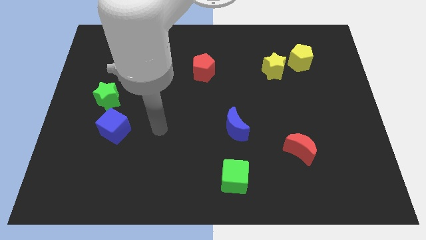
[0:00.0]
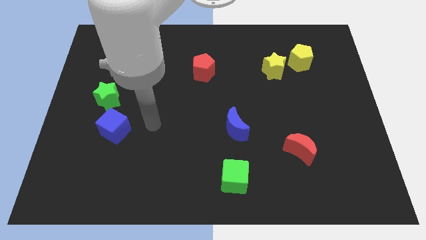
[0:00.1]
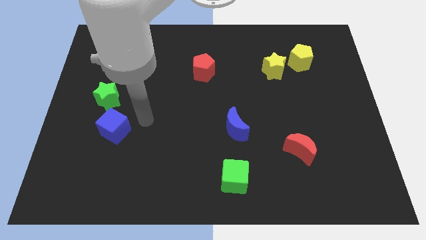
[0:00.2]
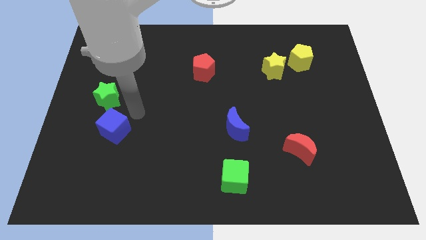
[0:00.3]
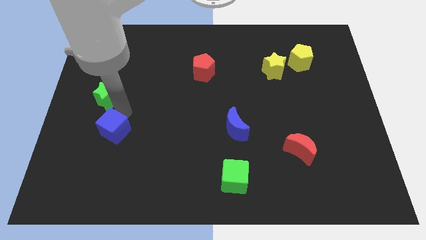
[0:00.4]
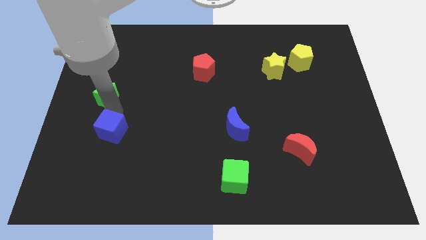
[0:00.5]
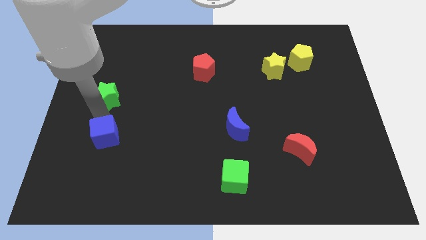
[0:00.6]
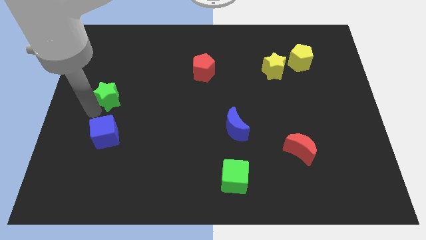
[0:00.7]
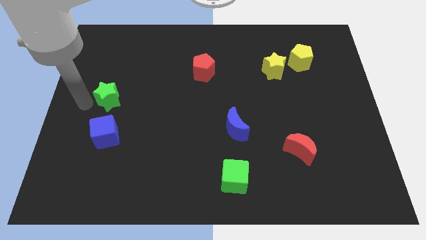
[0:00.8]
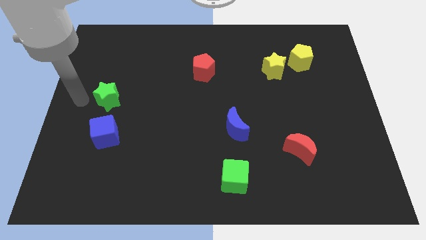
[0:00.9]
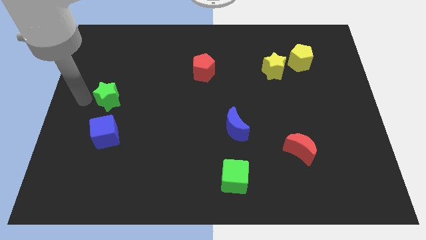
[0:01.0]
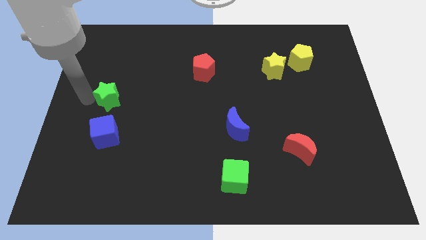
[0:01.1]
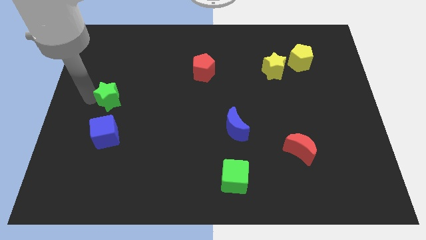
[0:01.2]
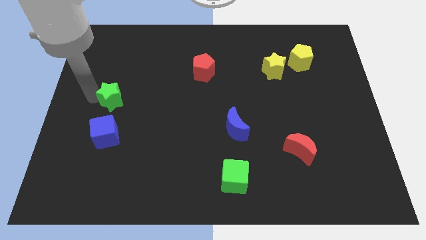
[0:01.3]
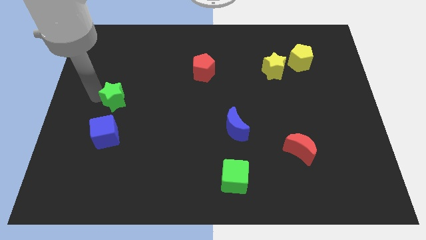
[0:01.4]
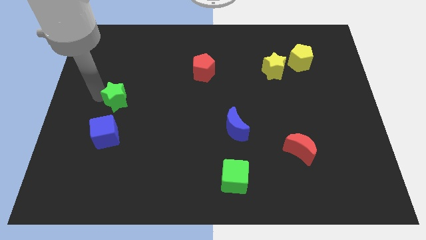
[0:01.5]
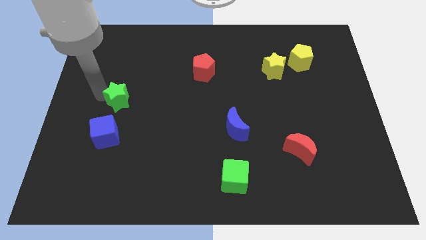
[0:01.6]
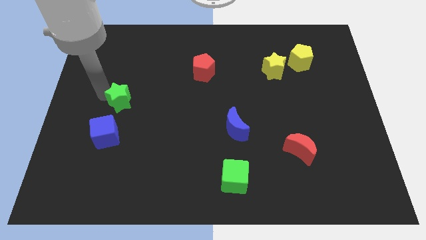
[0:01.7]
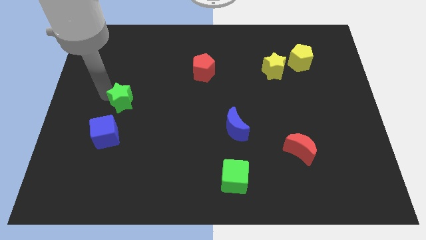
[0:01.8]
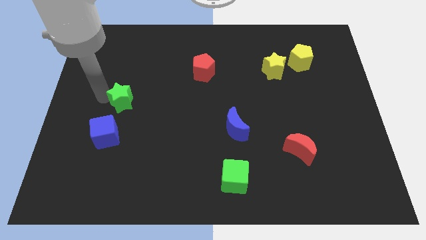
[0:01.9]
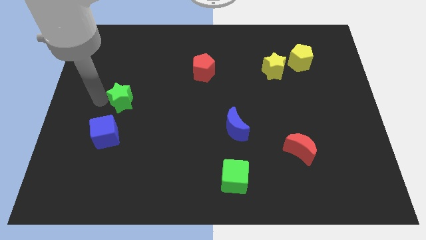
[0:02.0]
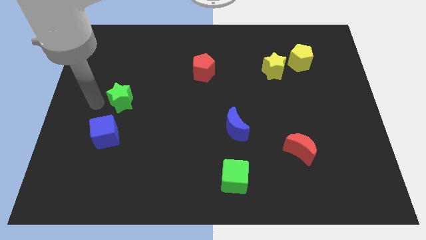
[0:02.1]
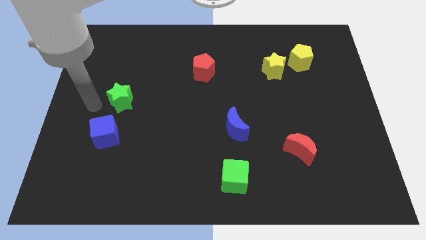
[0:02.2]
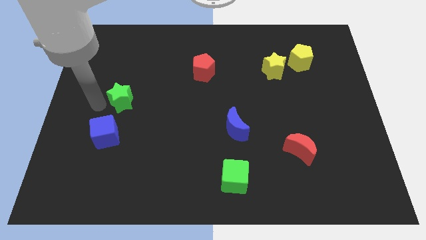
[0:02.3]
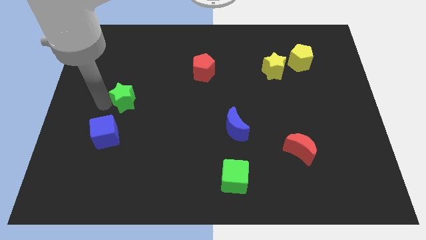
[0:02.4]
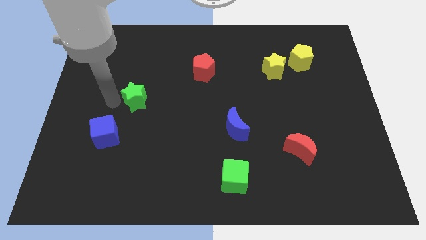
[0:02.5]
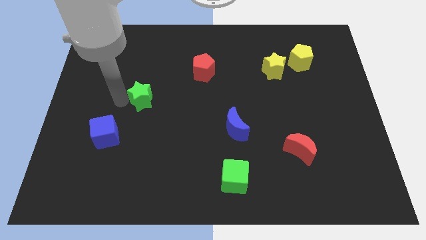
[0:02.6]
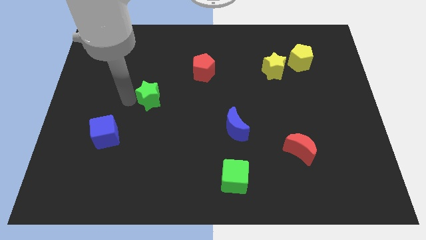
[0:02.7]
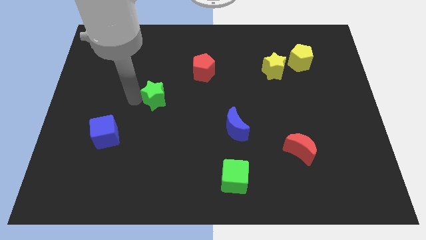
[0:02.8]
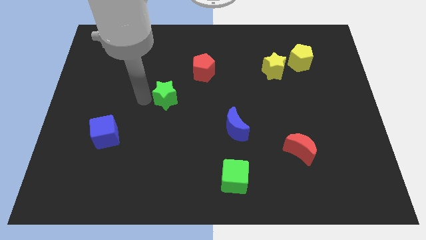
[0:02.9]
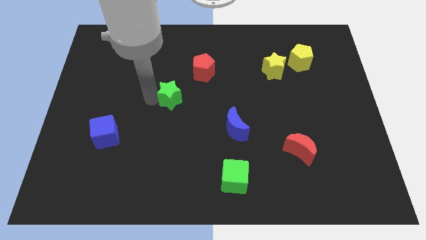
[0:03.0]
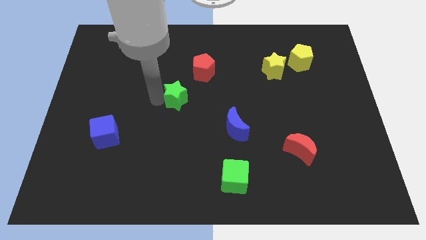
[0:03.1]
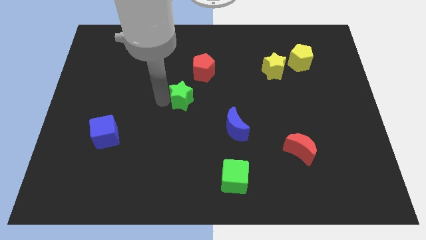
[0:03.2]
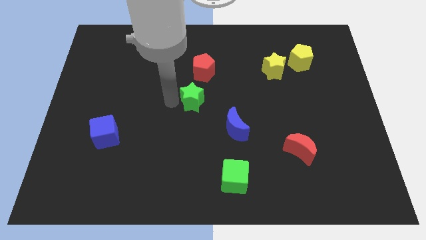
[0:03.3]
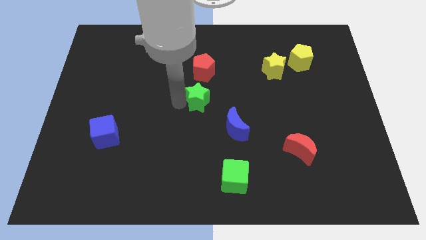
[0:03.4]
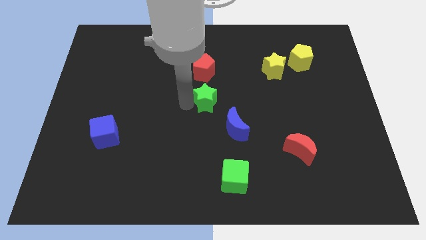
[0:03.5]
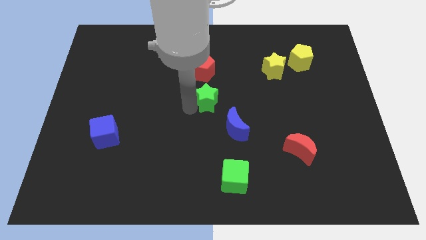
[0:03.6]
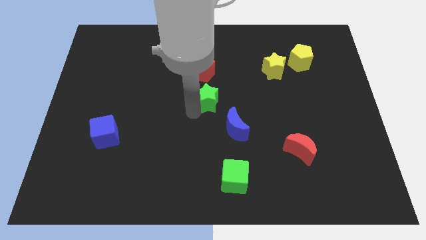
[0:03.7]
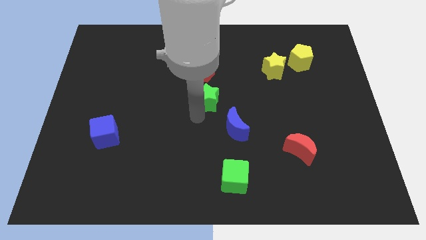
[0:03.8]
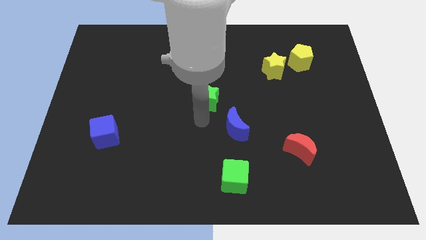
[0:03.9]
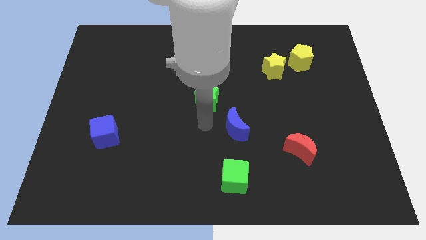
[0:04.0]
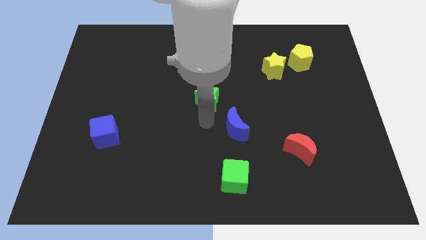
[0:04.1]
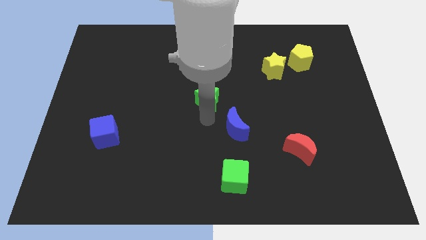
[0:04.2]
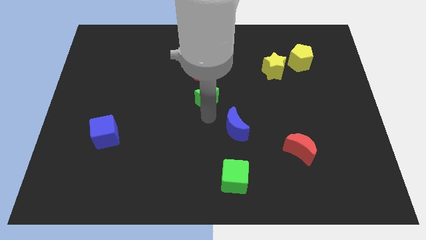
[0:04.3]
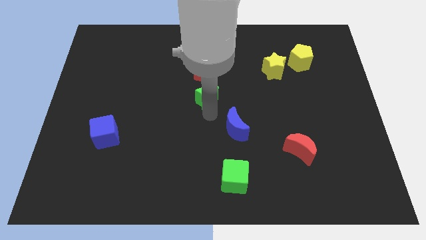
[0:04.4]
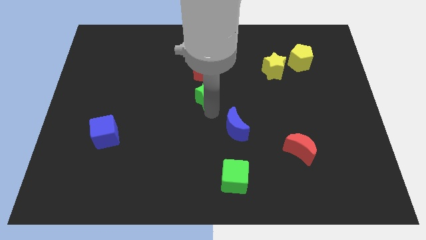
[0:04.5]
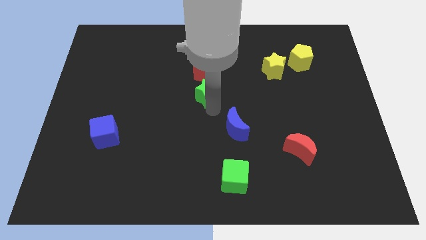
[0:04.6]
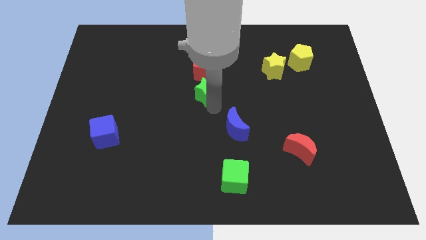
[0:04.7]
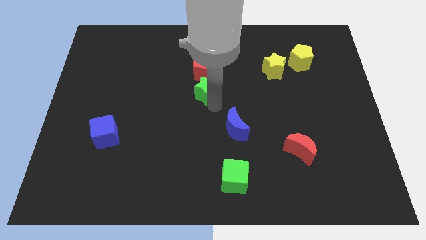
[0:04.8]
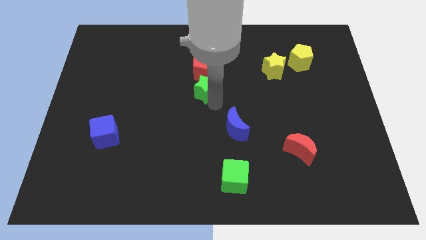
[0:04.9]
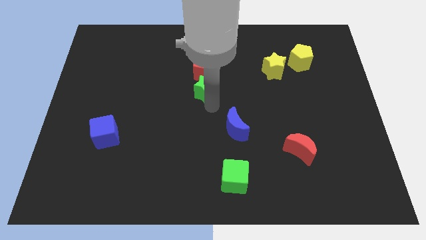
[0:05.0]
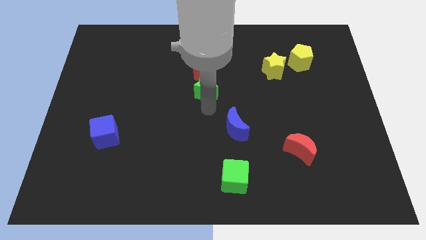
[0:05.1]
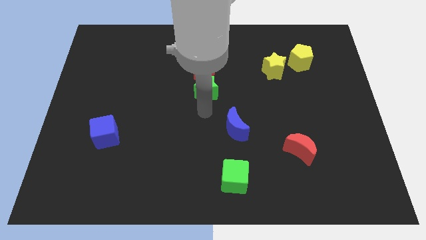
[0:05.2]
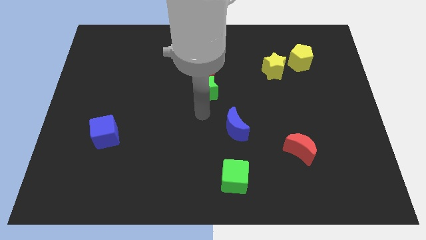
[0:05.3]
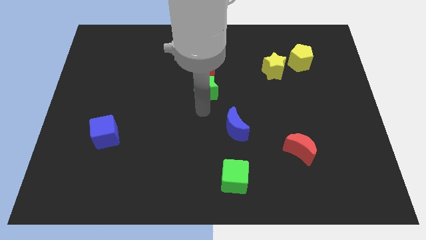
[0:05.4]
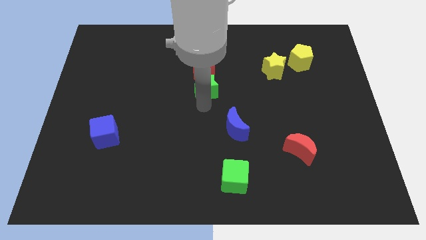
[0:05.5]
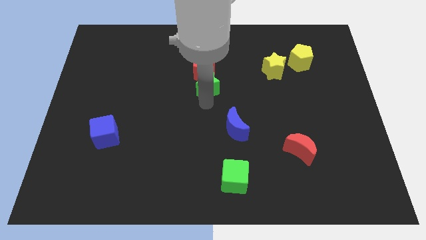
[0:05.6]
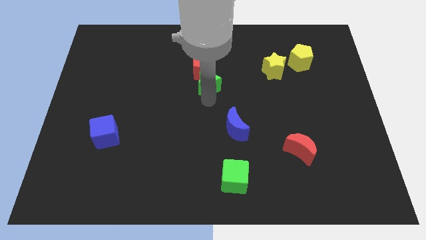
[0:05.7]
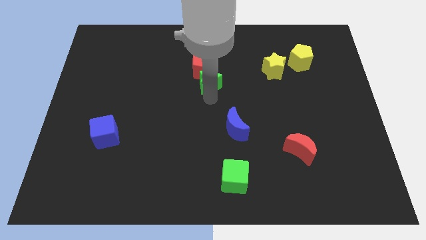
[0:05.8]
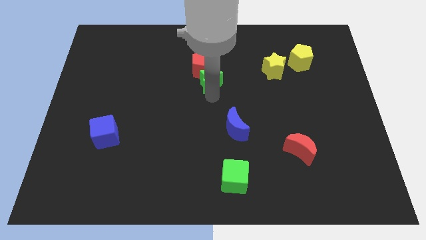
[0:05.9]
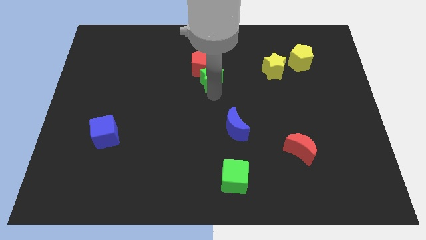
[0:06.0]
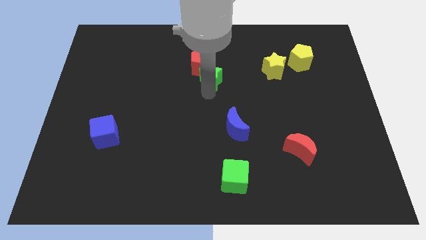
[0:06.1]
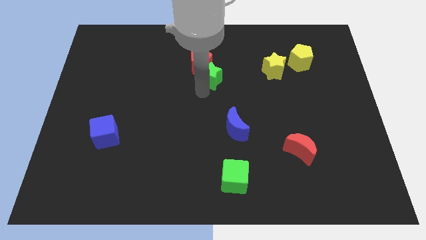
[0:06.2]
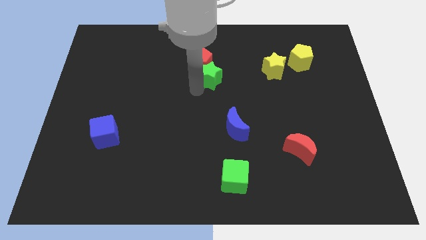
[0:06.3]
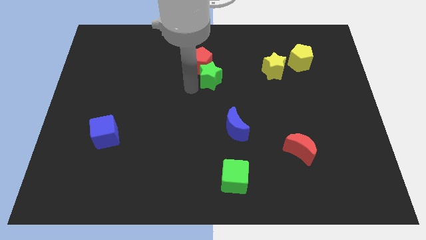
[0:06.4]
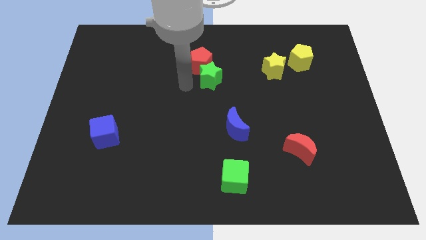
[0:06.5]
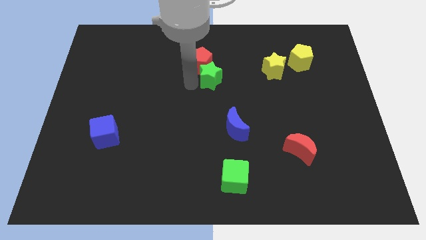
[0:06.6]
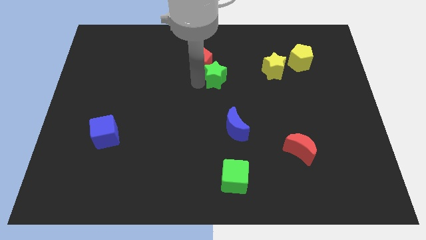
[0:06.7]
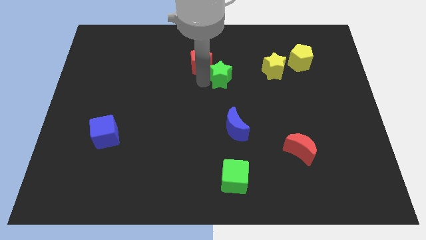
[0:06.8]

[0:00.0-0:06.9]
move the green star just right of the red pentagon

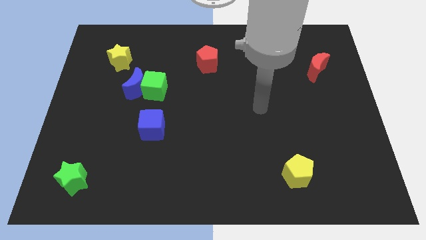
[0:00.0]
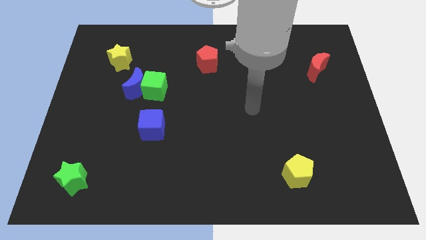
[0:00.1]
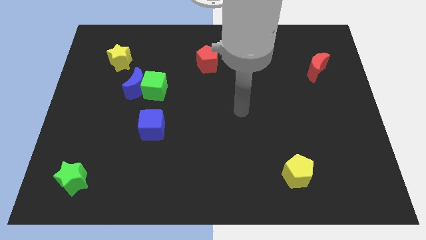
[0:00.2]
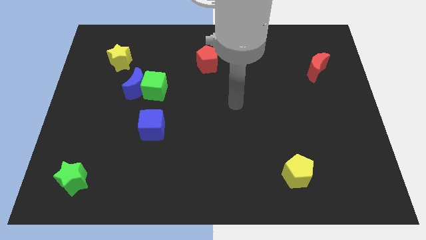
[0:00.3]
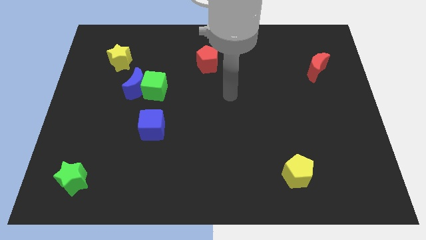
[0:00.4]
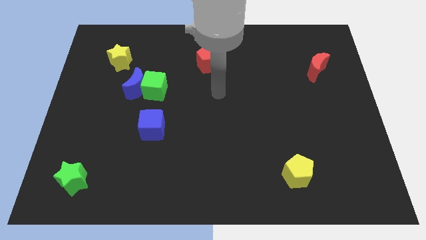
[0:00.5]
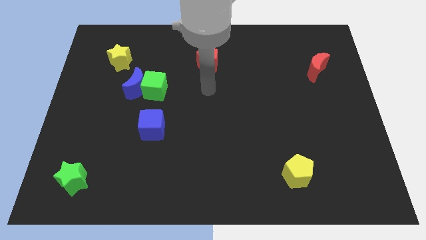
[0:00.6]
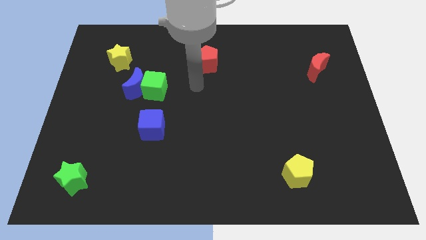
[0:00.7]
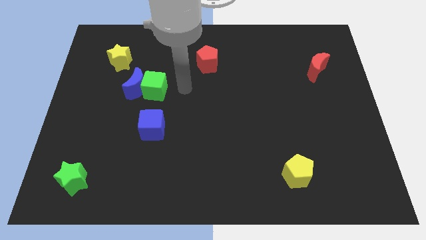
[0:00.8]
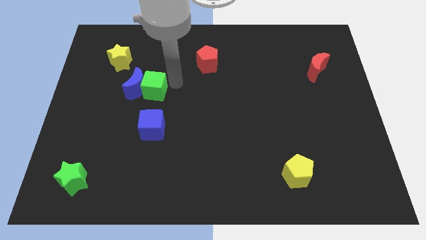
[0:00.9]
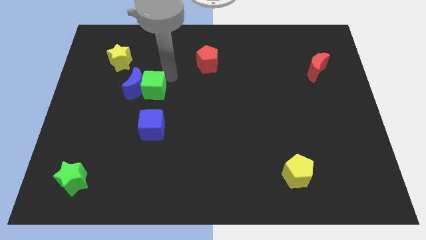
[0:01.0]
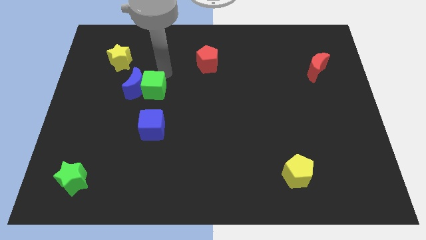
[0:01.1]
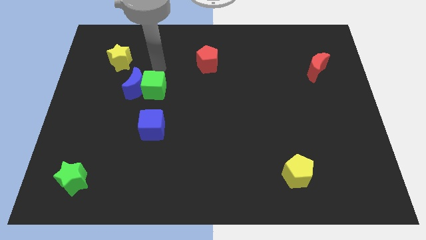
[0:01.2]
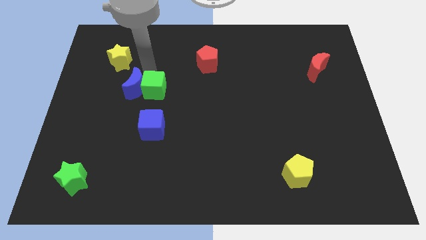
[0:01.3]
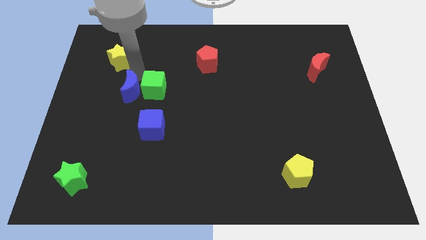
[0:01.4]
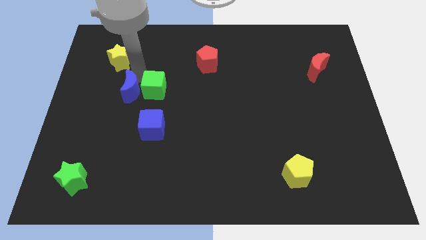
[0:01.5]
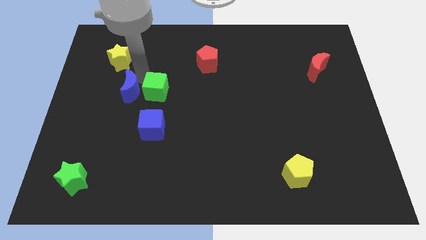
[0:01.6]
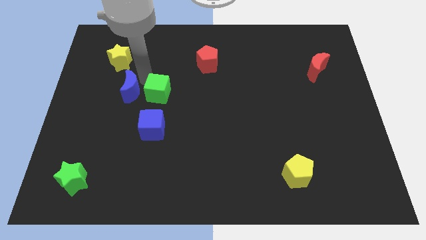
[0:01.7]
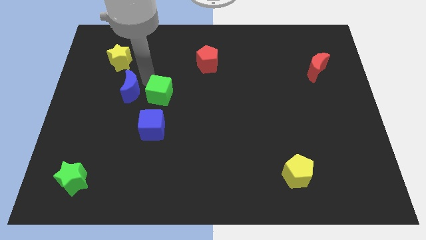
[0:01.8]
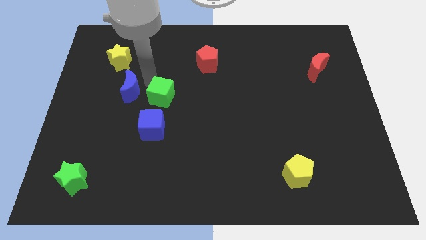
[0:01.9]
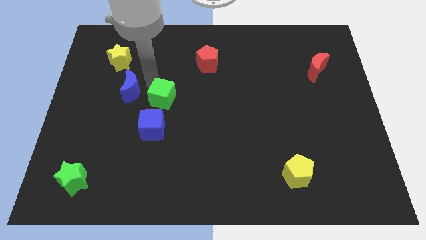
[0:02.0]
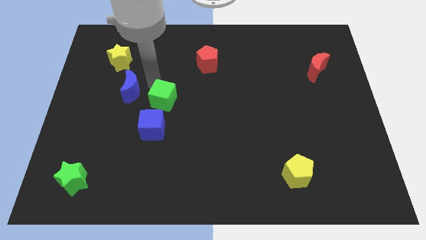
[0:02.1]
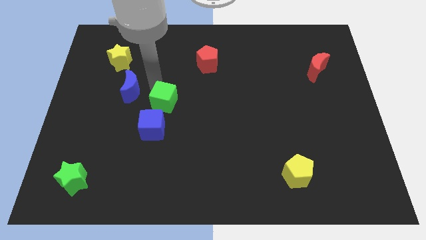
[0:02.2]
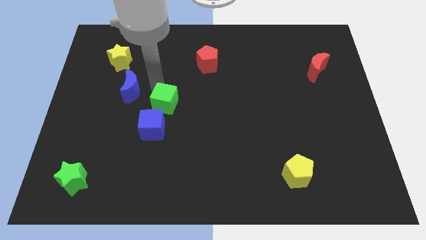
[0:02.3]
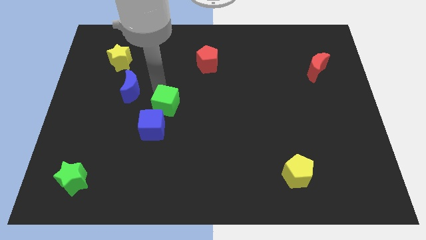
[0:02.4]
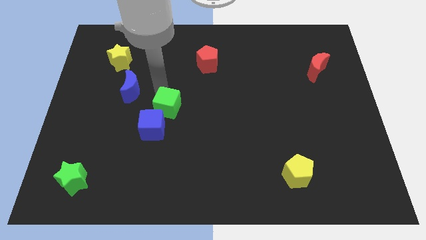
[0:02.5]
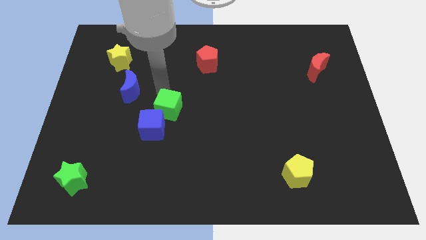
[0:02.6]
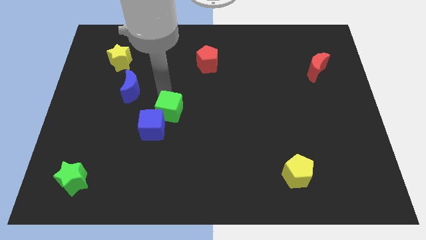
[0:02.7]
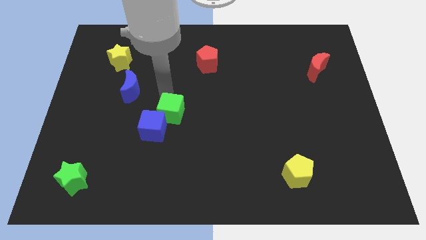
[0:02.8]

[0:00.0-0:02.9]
slide the green cube to the right side of the blue cube
